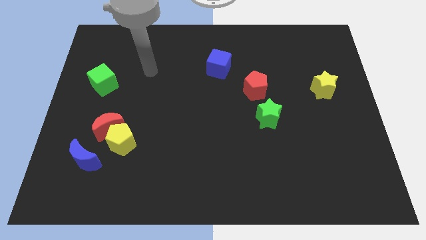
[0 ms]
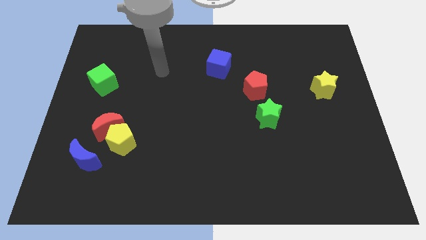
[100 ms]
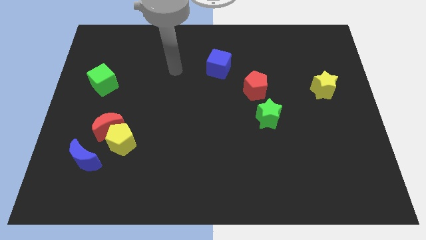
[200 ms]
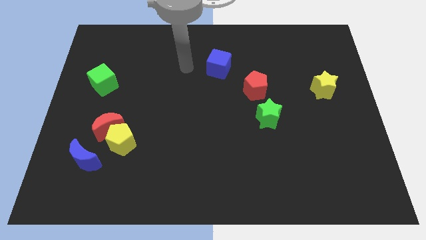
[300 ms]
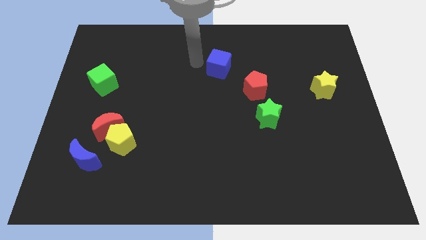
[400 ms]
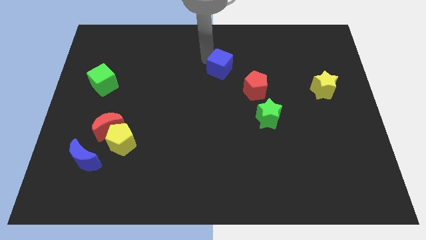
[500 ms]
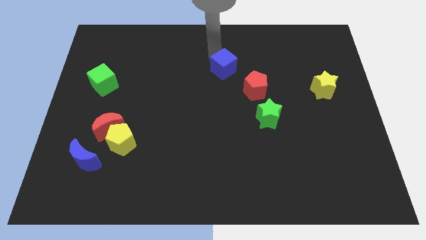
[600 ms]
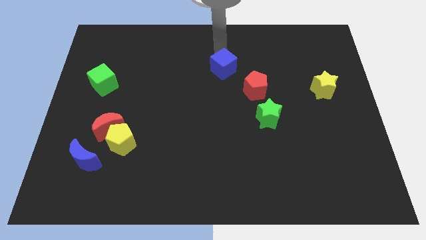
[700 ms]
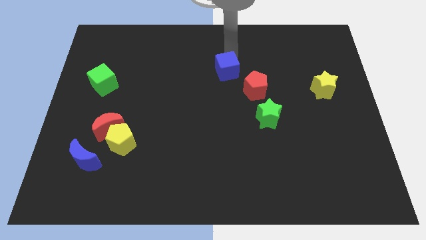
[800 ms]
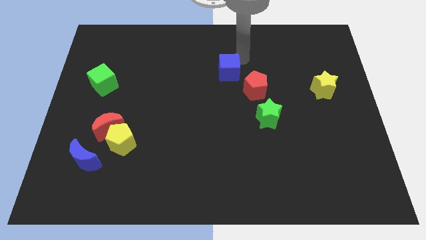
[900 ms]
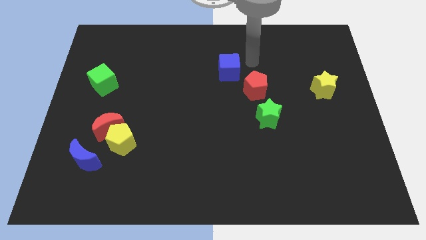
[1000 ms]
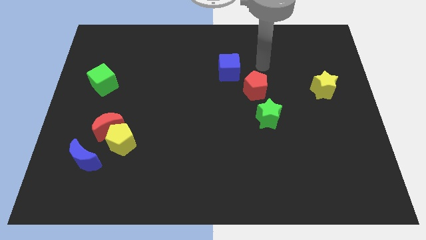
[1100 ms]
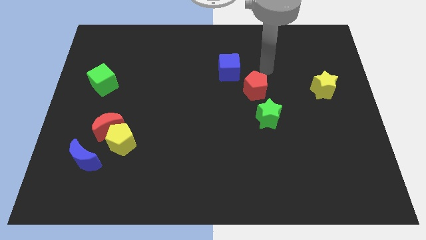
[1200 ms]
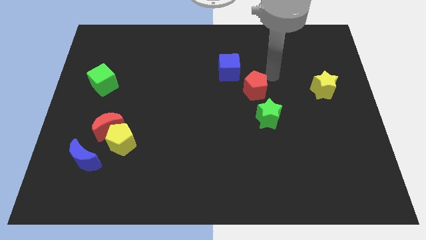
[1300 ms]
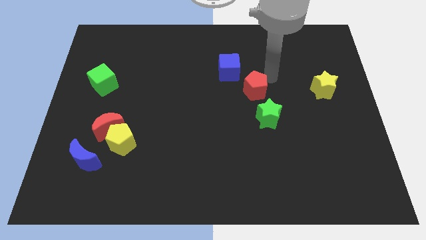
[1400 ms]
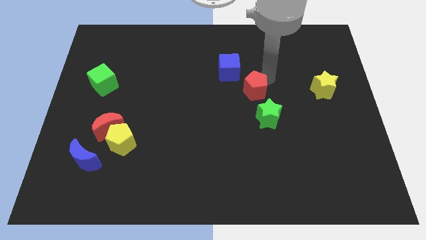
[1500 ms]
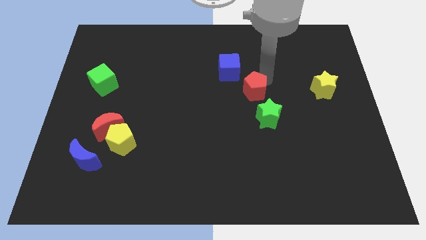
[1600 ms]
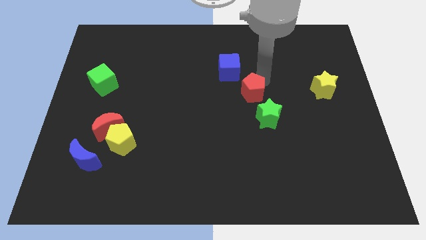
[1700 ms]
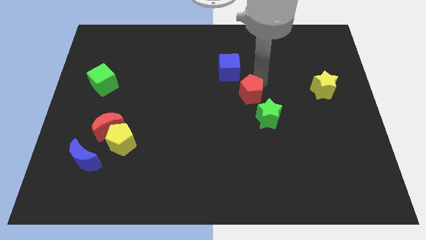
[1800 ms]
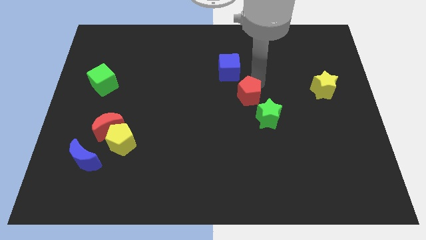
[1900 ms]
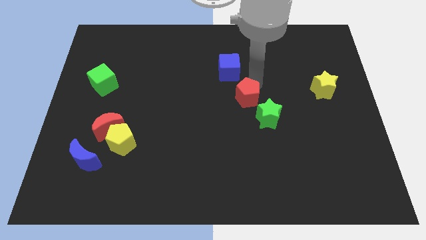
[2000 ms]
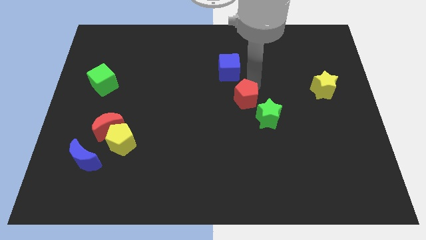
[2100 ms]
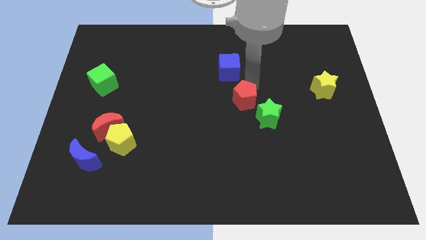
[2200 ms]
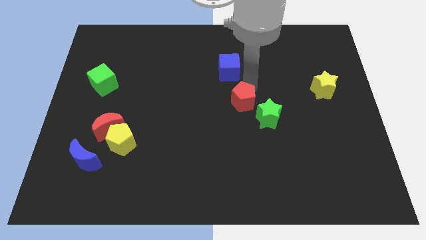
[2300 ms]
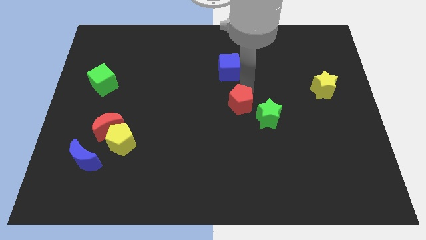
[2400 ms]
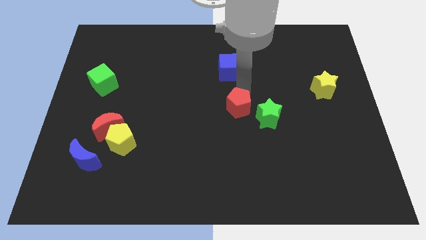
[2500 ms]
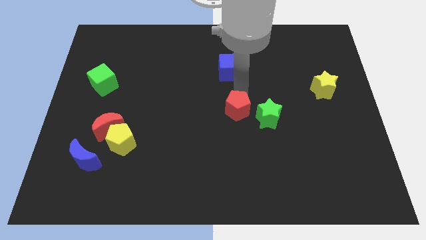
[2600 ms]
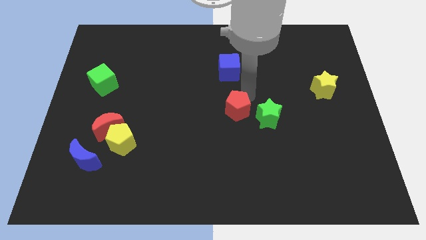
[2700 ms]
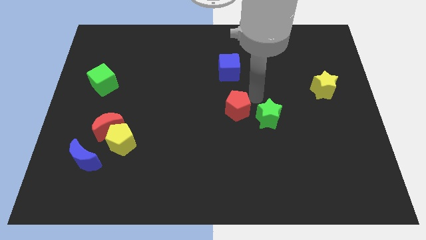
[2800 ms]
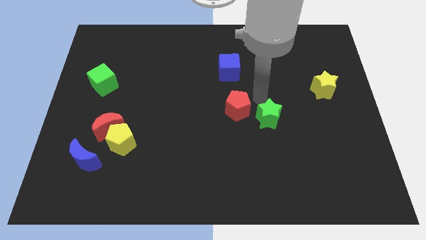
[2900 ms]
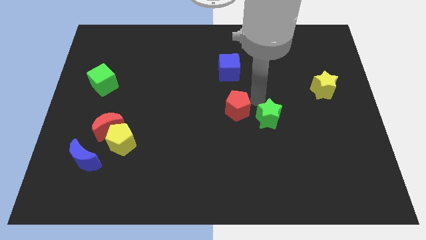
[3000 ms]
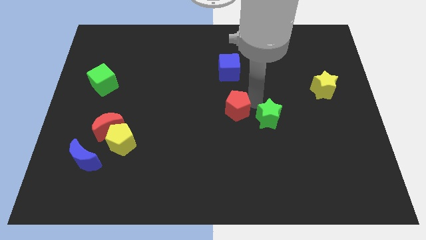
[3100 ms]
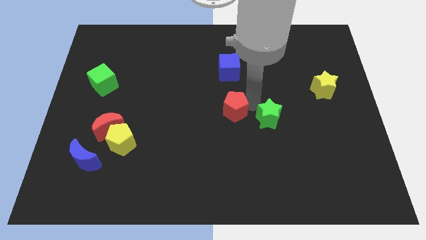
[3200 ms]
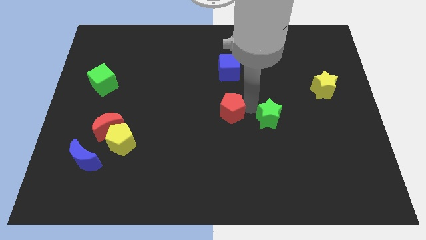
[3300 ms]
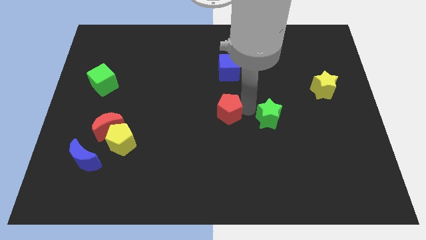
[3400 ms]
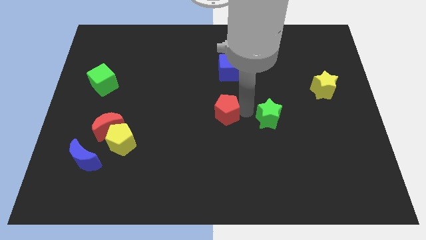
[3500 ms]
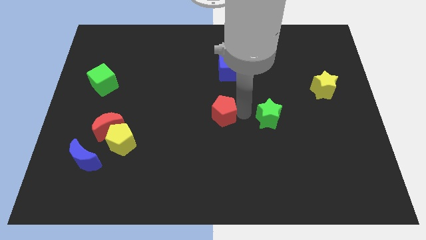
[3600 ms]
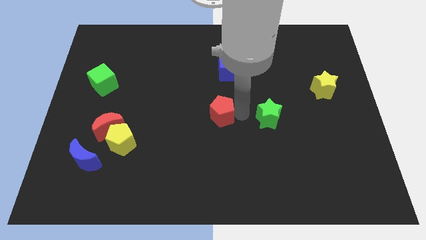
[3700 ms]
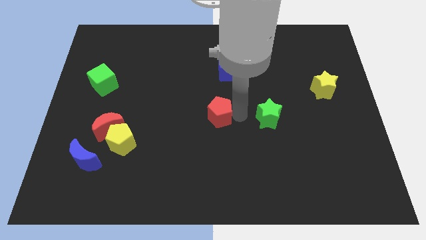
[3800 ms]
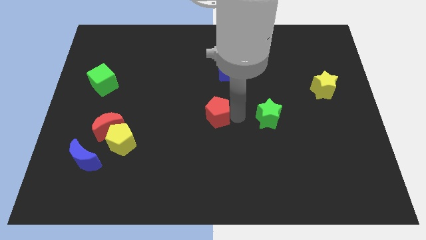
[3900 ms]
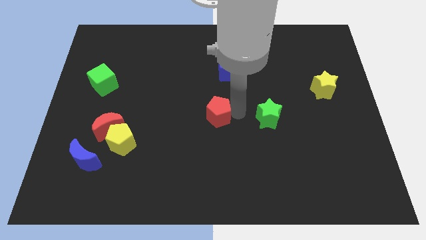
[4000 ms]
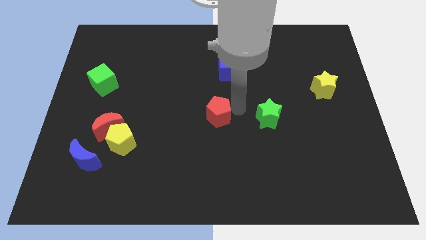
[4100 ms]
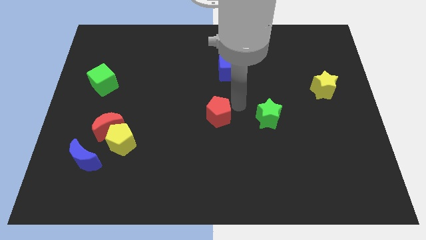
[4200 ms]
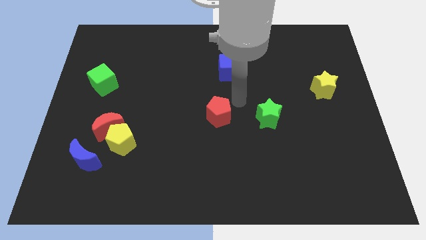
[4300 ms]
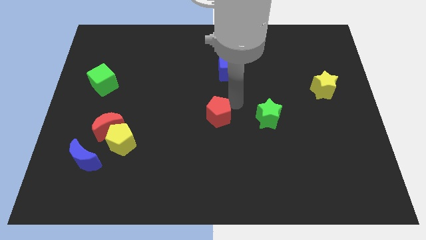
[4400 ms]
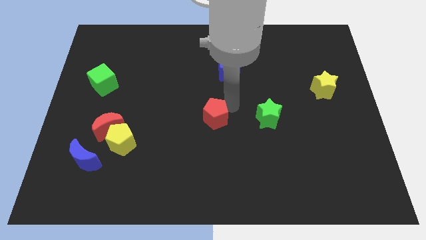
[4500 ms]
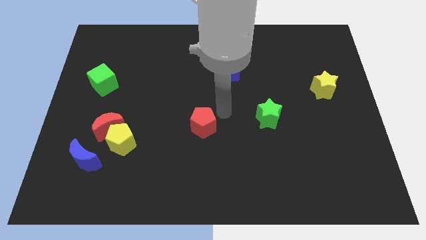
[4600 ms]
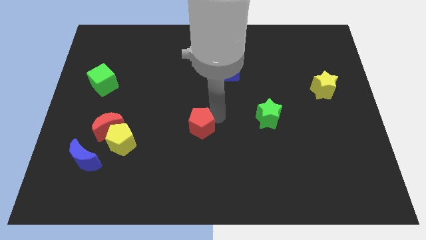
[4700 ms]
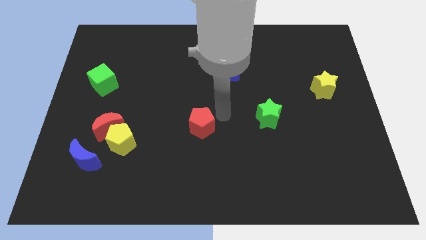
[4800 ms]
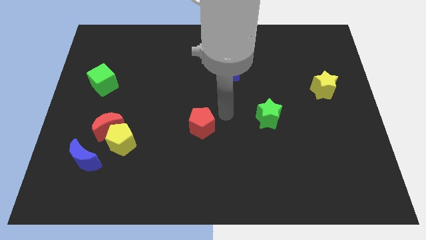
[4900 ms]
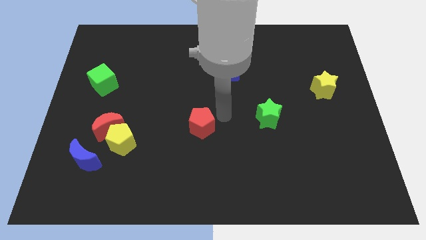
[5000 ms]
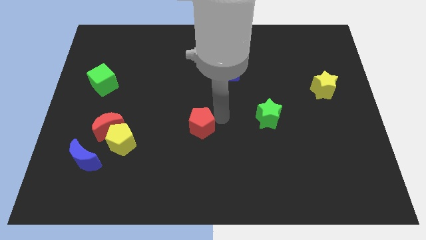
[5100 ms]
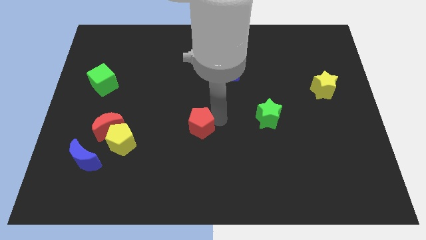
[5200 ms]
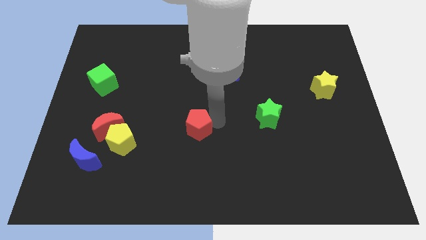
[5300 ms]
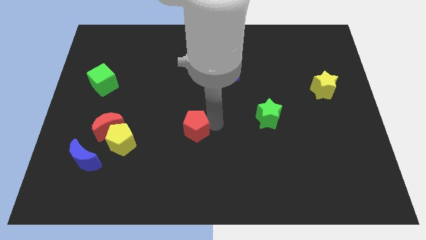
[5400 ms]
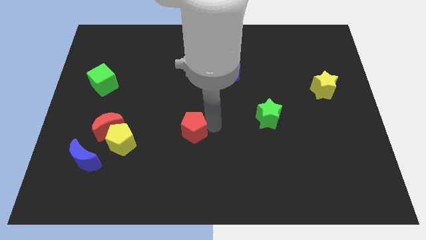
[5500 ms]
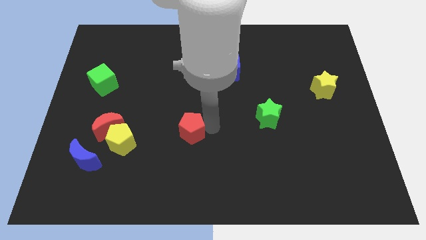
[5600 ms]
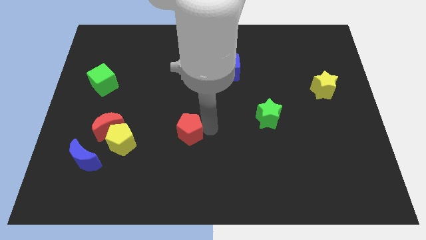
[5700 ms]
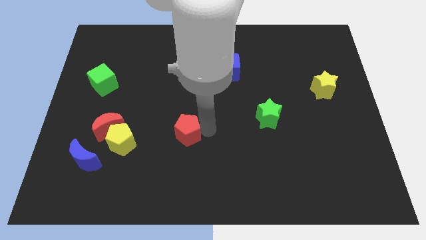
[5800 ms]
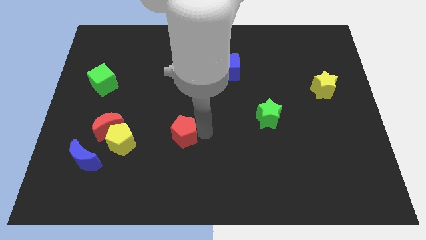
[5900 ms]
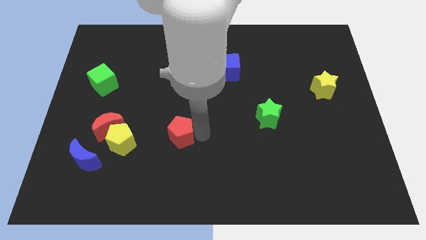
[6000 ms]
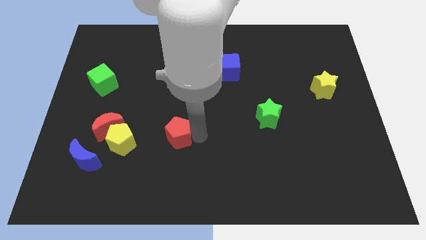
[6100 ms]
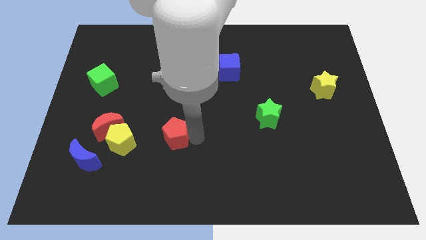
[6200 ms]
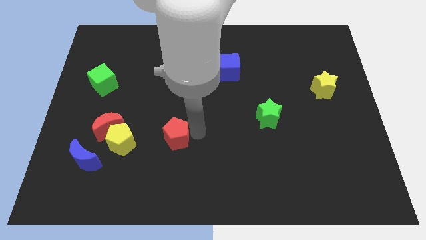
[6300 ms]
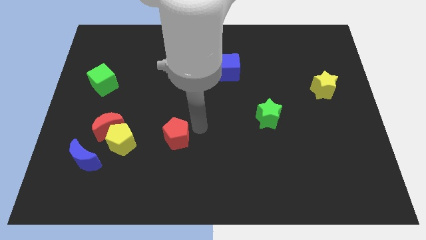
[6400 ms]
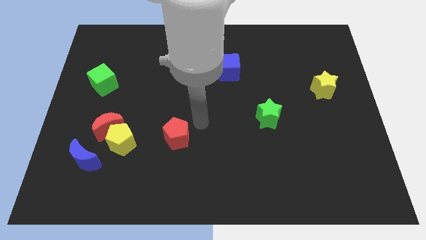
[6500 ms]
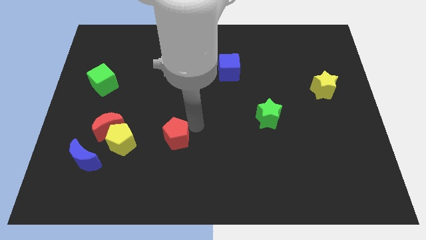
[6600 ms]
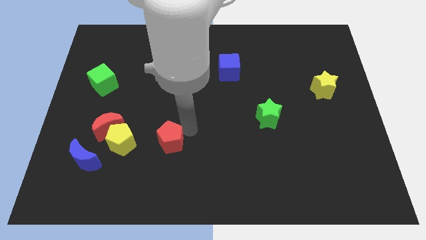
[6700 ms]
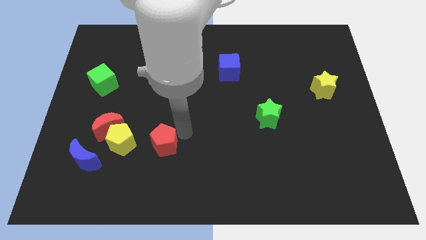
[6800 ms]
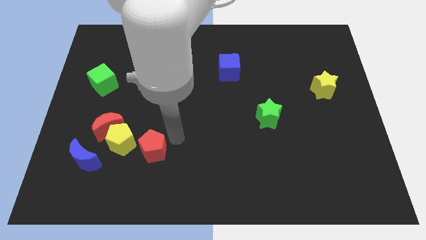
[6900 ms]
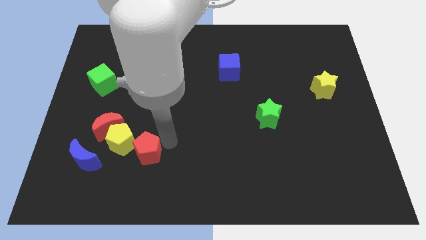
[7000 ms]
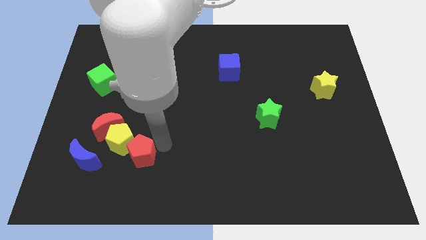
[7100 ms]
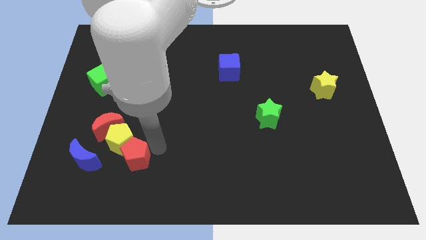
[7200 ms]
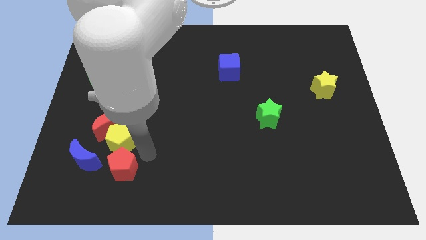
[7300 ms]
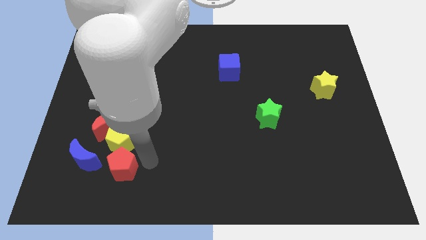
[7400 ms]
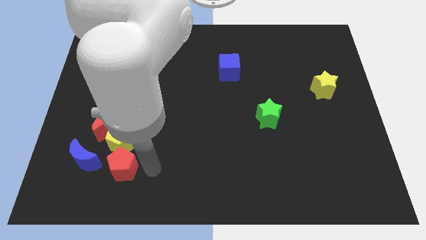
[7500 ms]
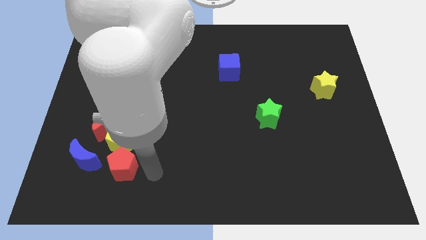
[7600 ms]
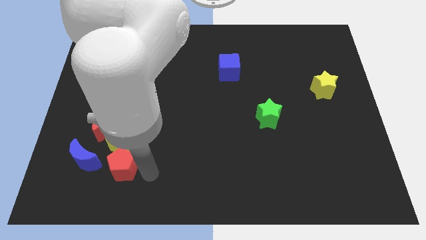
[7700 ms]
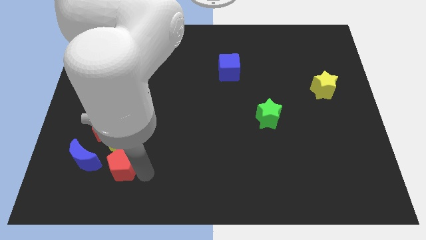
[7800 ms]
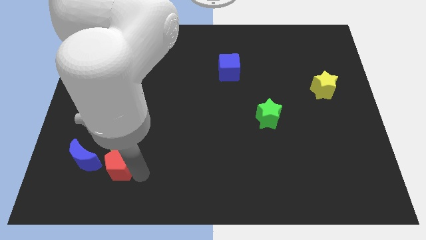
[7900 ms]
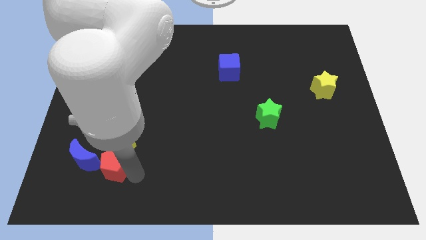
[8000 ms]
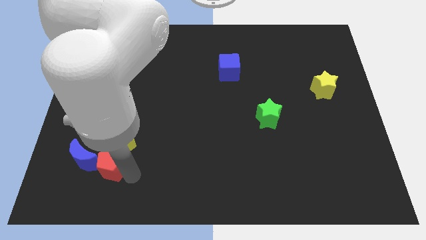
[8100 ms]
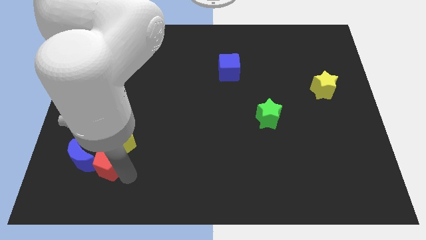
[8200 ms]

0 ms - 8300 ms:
slide the red pentagon close to the blue moon
